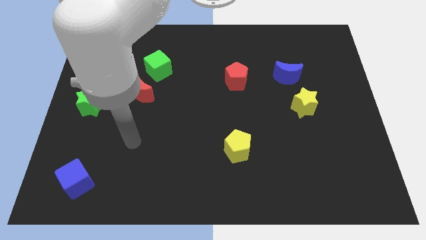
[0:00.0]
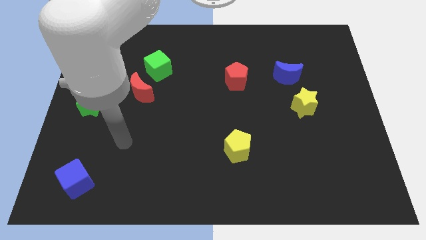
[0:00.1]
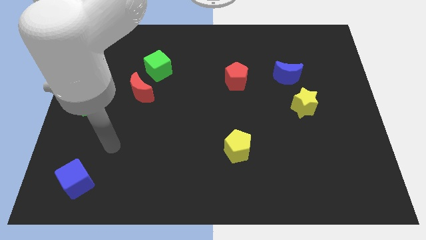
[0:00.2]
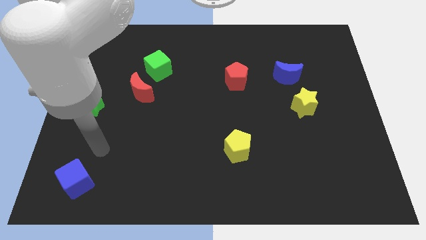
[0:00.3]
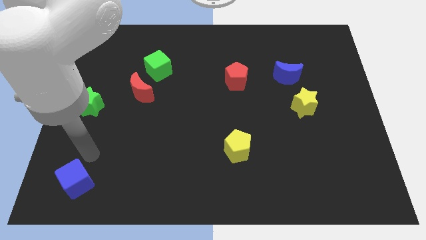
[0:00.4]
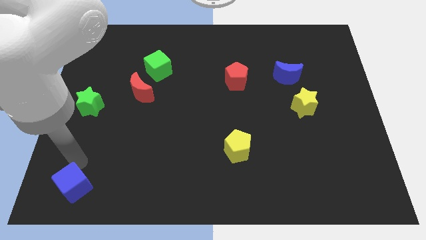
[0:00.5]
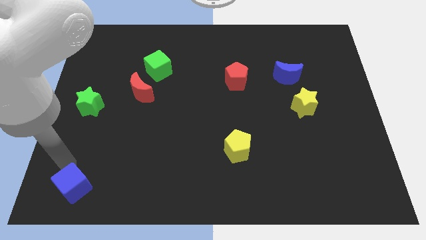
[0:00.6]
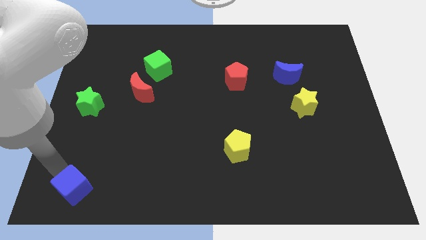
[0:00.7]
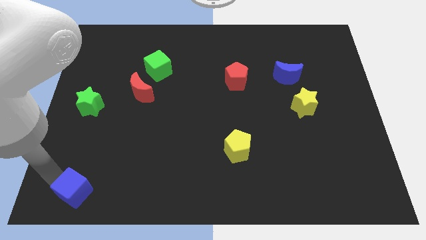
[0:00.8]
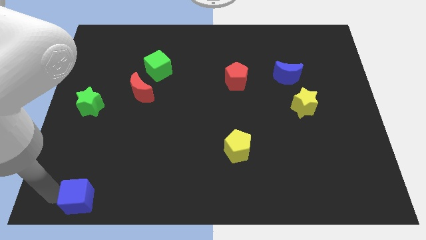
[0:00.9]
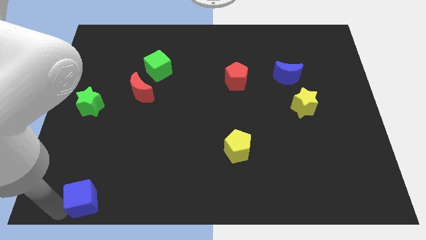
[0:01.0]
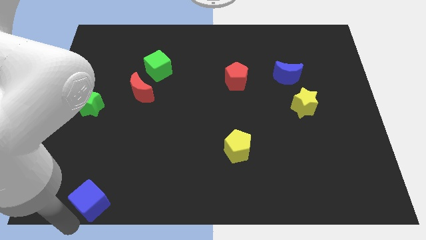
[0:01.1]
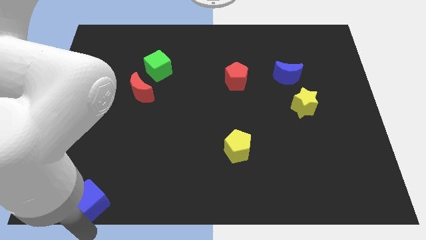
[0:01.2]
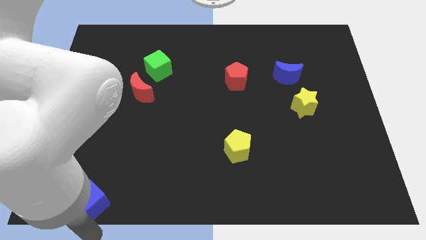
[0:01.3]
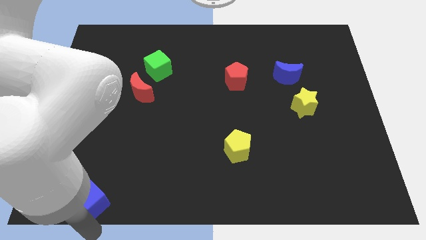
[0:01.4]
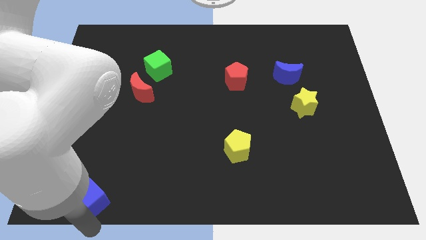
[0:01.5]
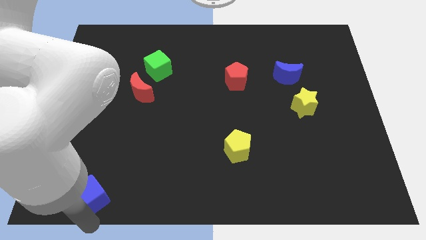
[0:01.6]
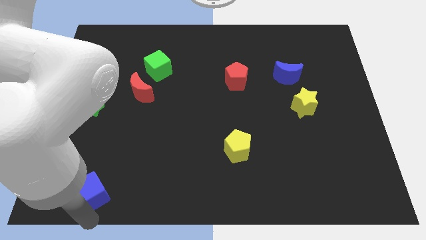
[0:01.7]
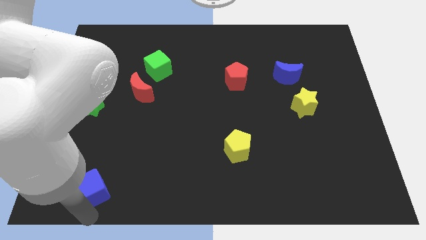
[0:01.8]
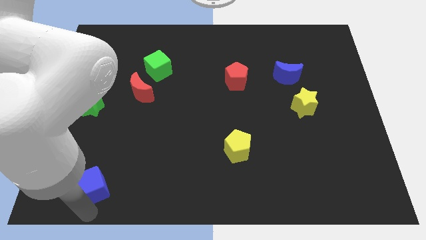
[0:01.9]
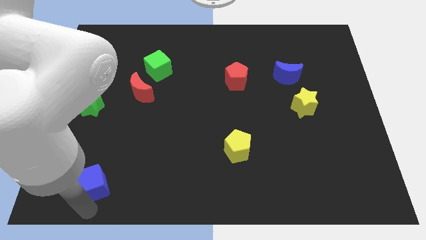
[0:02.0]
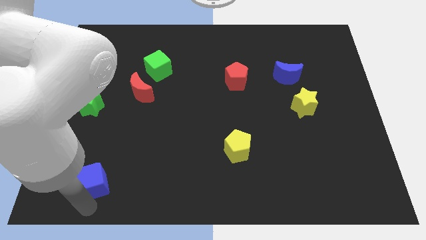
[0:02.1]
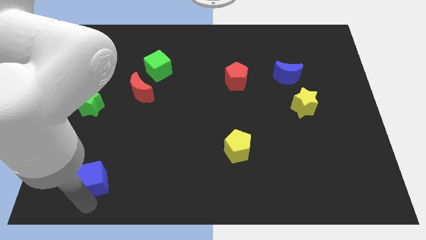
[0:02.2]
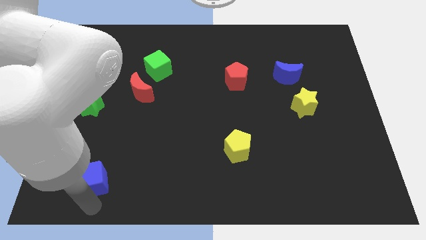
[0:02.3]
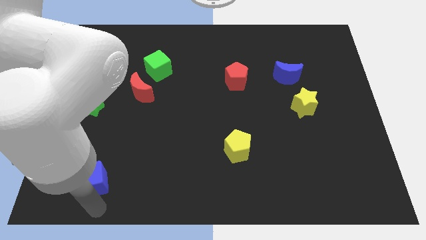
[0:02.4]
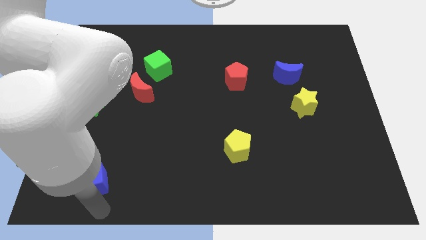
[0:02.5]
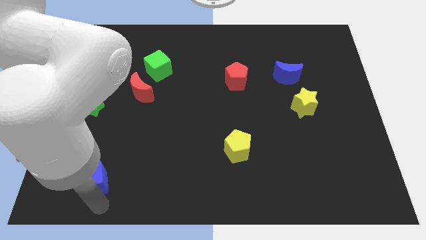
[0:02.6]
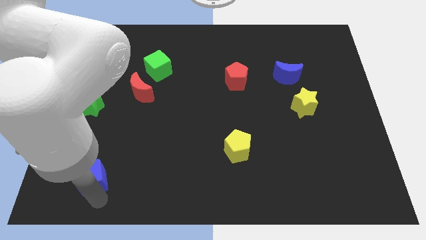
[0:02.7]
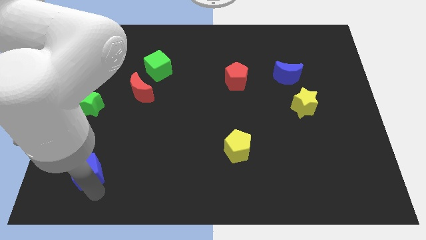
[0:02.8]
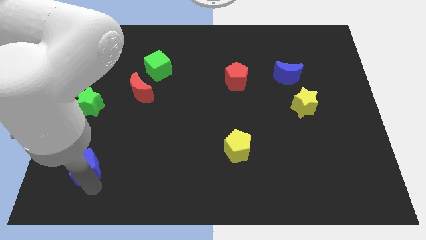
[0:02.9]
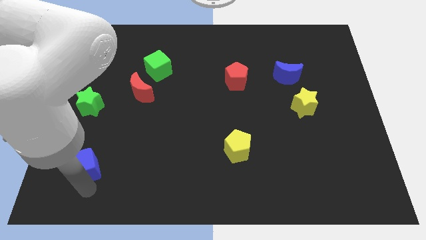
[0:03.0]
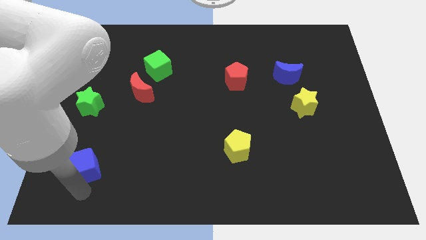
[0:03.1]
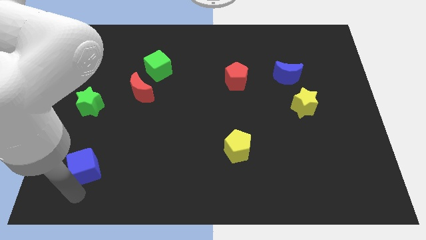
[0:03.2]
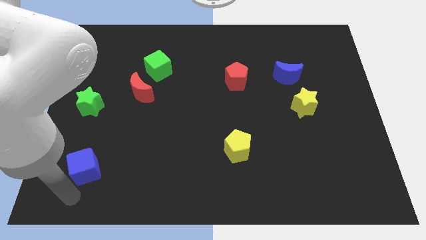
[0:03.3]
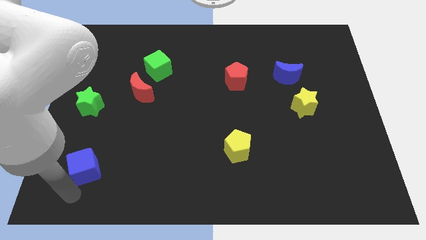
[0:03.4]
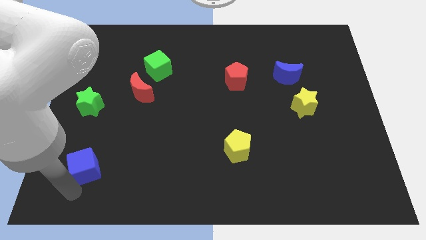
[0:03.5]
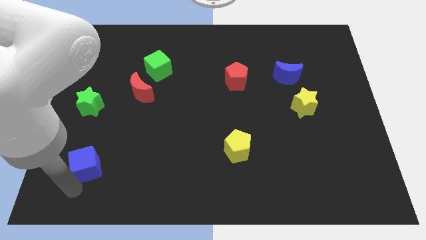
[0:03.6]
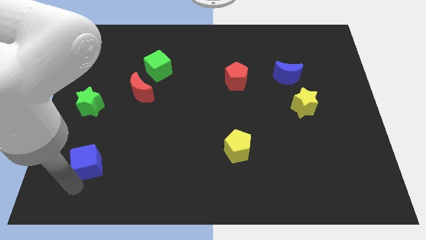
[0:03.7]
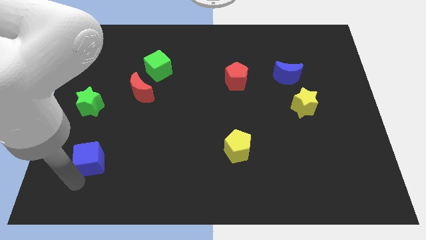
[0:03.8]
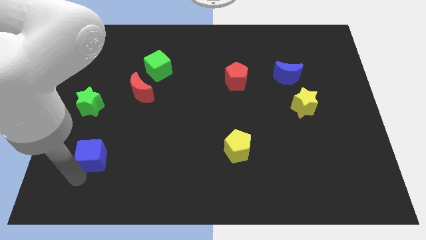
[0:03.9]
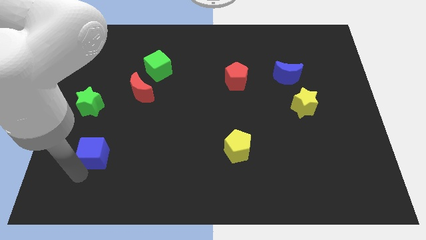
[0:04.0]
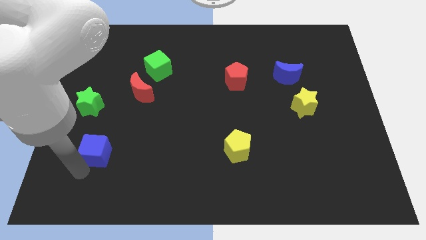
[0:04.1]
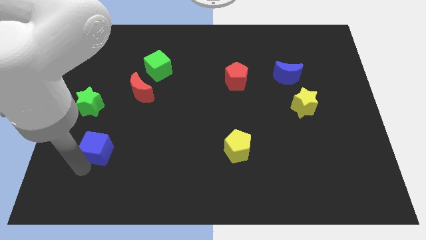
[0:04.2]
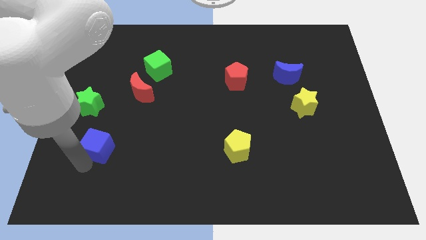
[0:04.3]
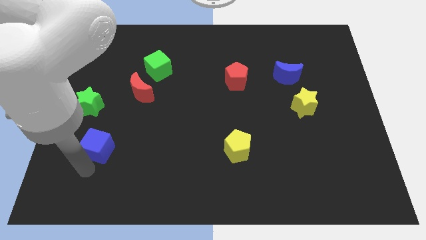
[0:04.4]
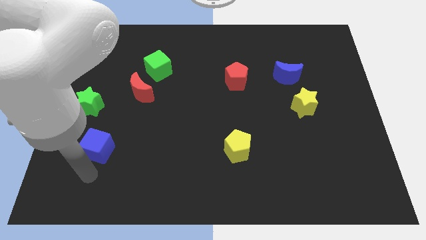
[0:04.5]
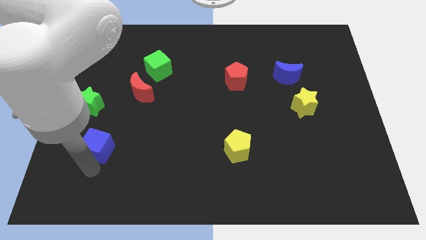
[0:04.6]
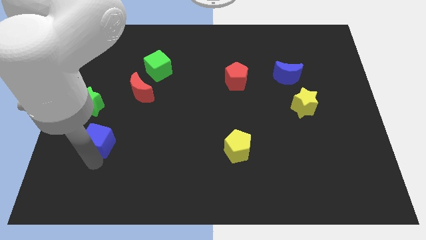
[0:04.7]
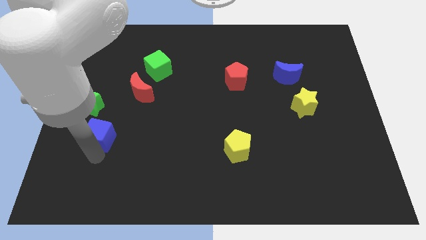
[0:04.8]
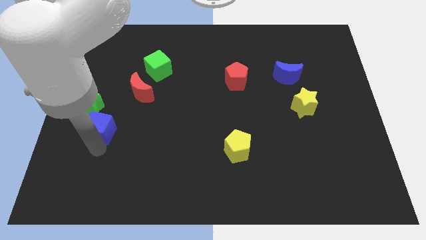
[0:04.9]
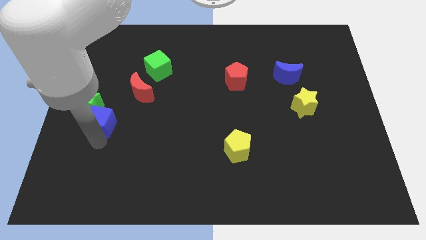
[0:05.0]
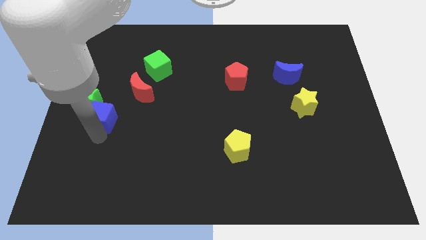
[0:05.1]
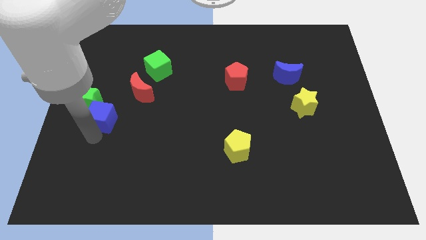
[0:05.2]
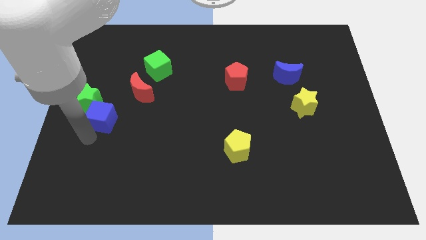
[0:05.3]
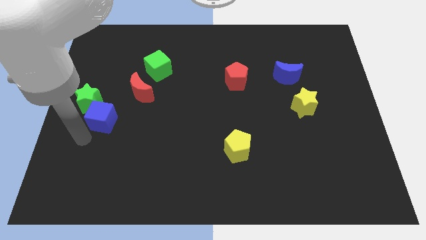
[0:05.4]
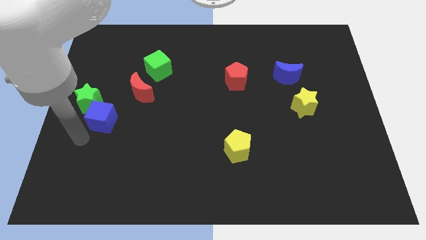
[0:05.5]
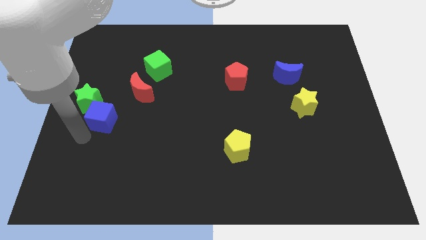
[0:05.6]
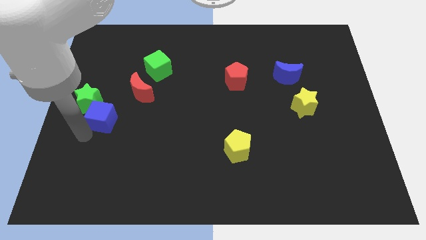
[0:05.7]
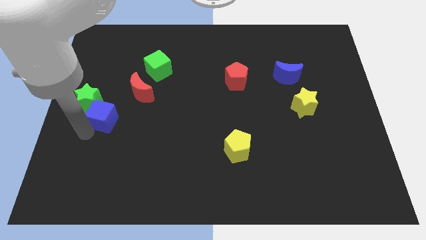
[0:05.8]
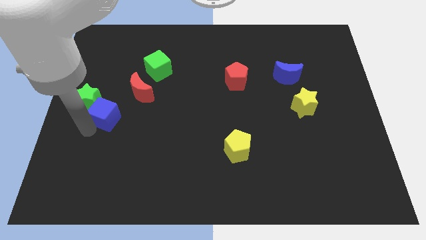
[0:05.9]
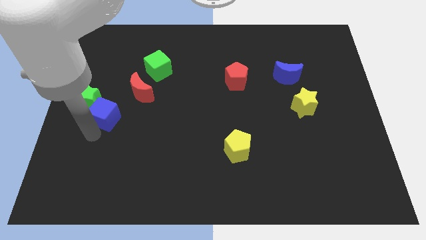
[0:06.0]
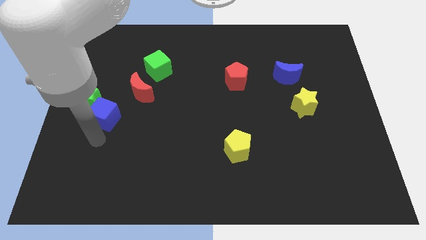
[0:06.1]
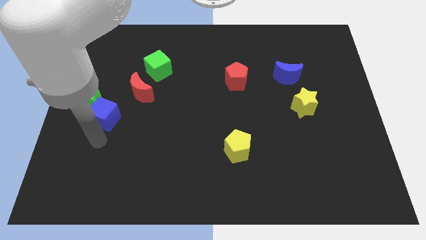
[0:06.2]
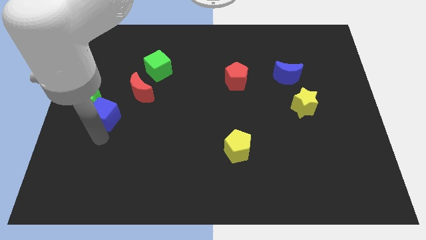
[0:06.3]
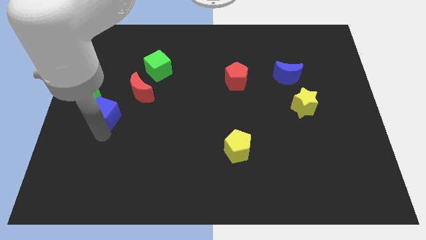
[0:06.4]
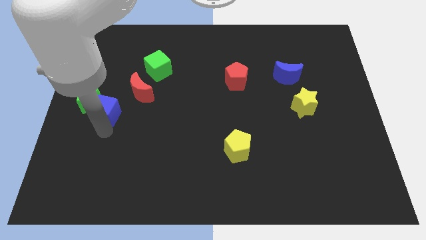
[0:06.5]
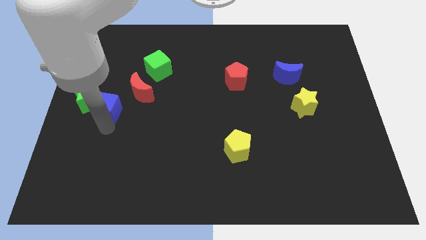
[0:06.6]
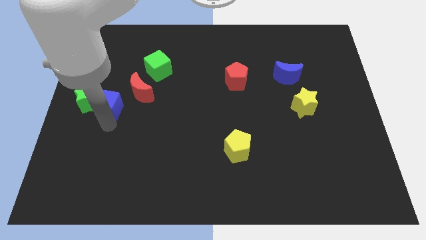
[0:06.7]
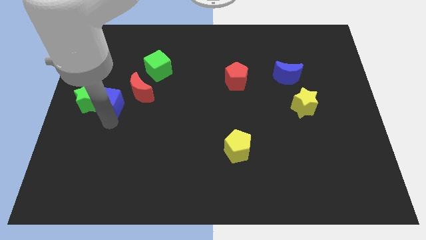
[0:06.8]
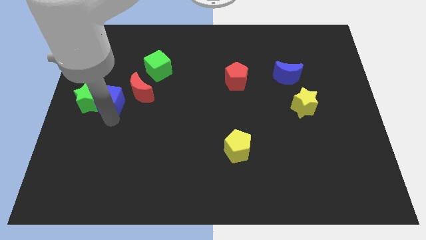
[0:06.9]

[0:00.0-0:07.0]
move the blue cube upwards

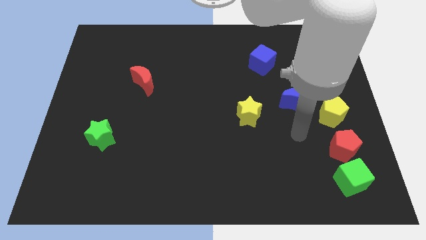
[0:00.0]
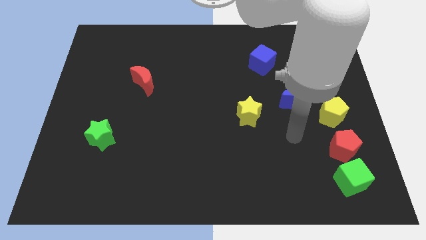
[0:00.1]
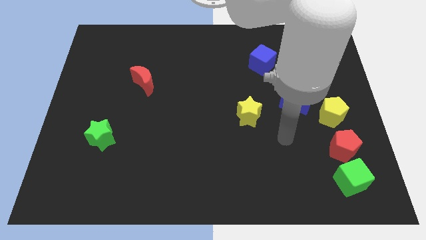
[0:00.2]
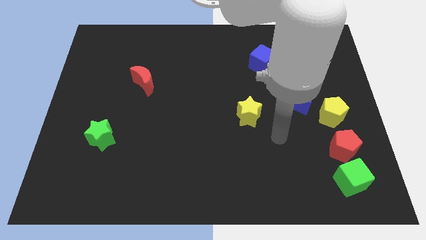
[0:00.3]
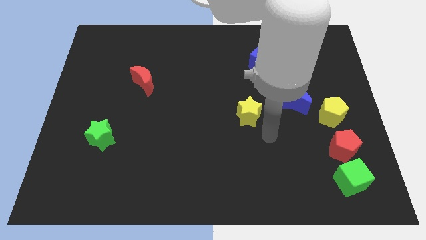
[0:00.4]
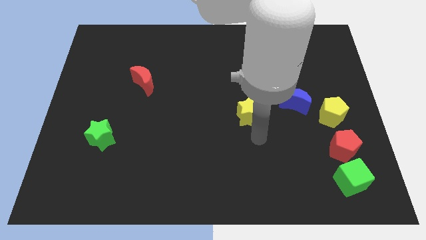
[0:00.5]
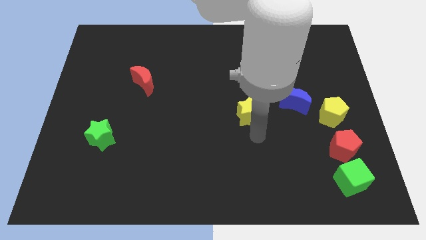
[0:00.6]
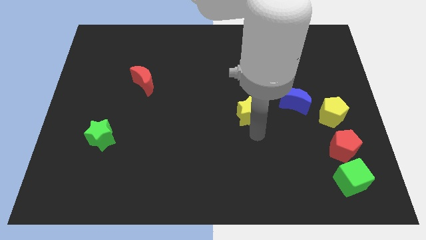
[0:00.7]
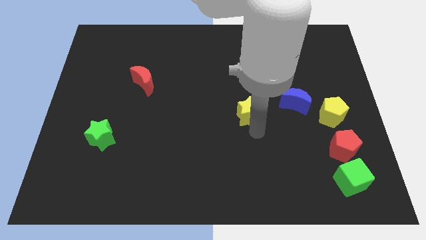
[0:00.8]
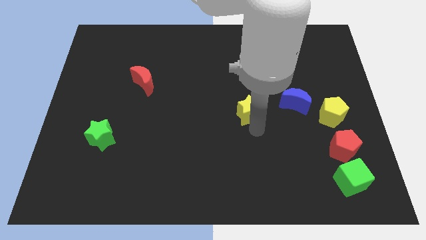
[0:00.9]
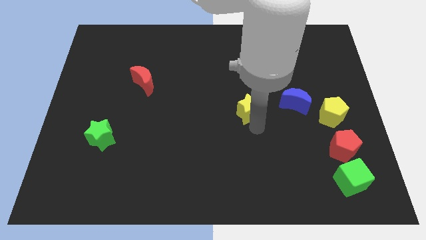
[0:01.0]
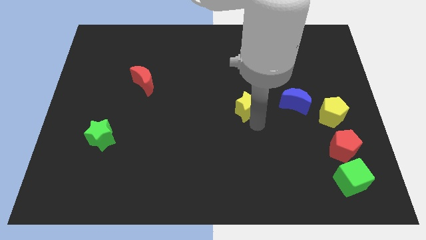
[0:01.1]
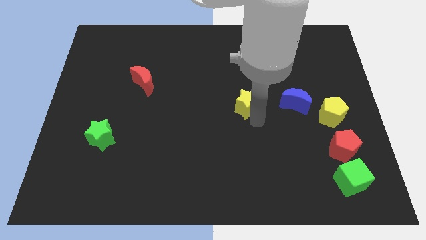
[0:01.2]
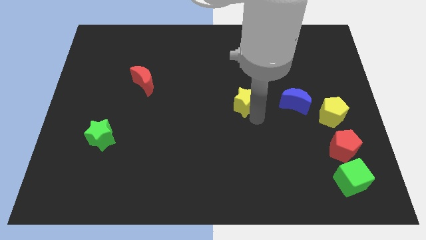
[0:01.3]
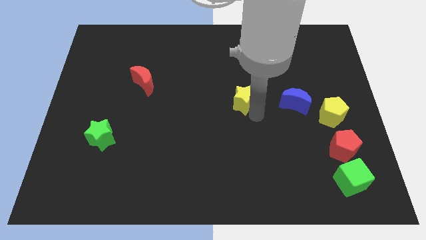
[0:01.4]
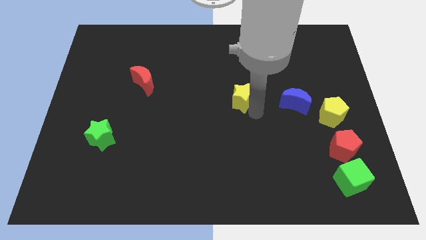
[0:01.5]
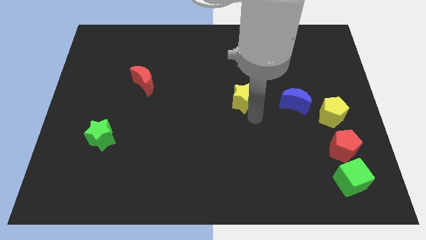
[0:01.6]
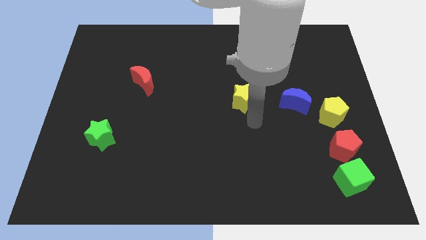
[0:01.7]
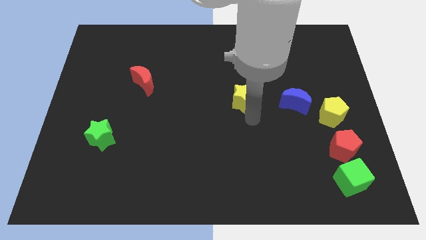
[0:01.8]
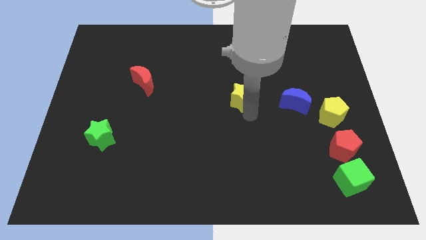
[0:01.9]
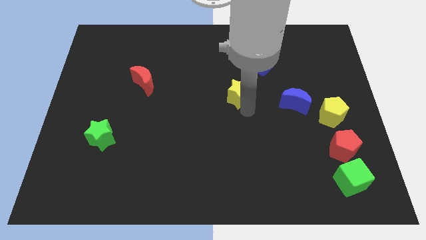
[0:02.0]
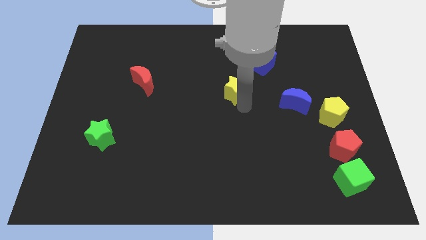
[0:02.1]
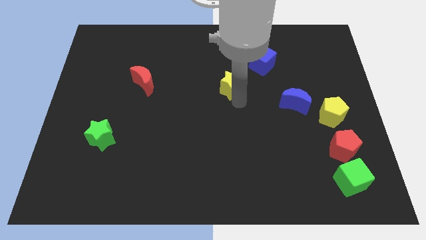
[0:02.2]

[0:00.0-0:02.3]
slightly push the yellow star upwards
